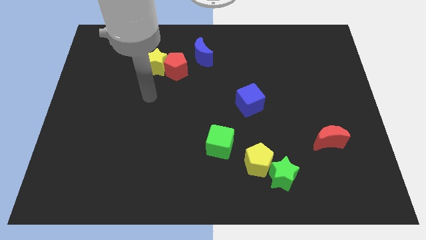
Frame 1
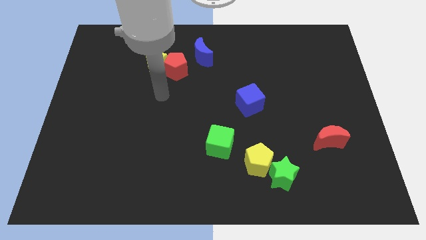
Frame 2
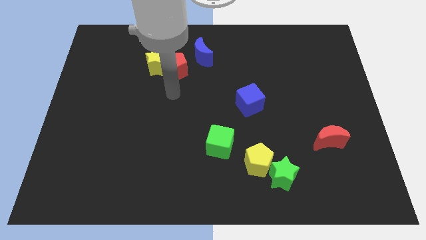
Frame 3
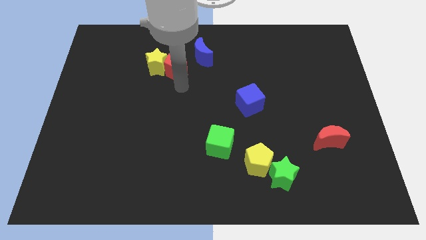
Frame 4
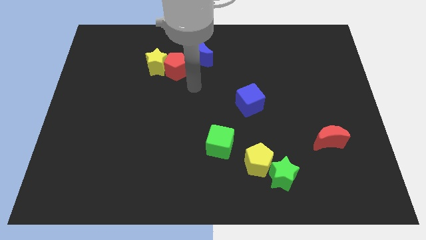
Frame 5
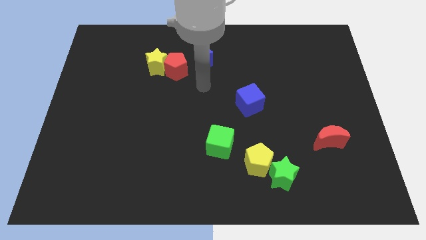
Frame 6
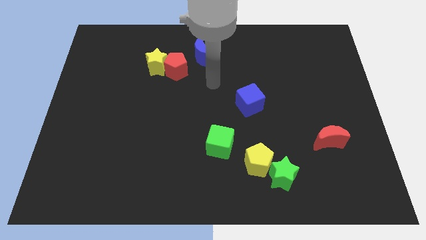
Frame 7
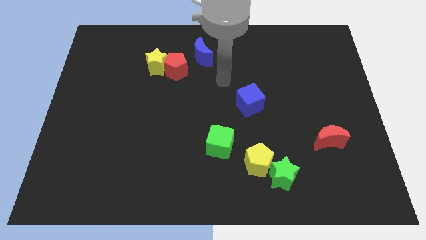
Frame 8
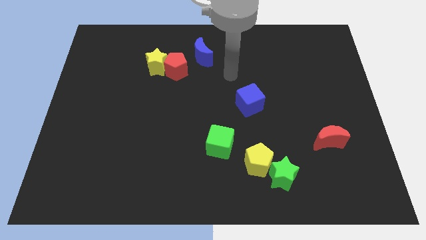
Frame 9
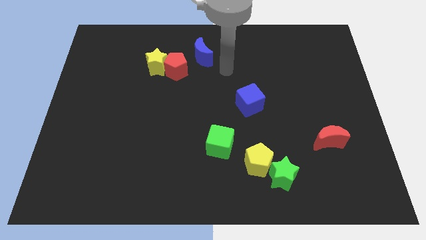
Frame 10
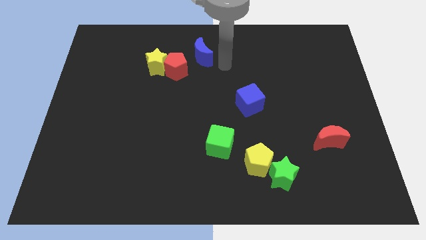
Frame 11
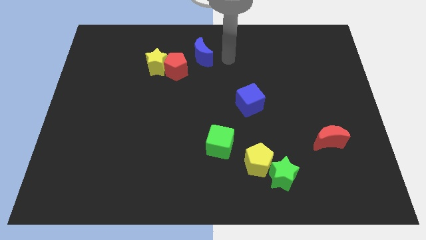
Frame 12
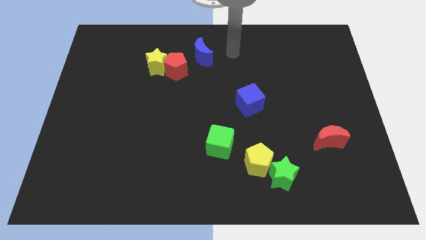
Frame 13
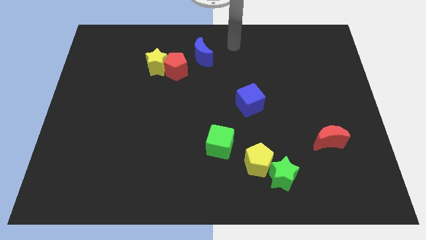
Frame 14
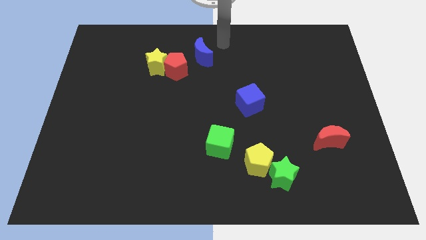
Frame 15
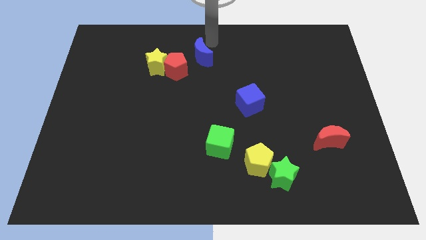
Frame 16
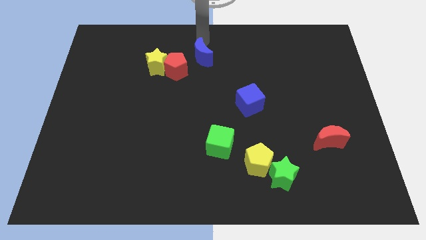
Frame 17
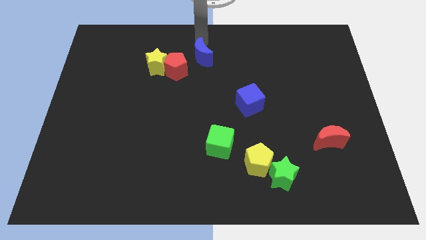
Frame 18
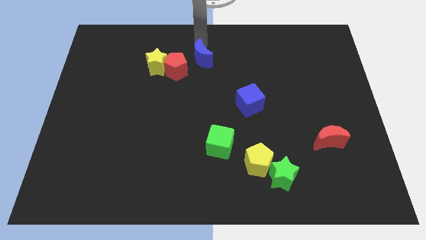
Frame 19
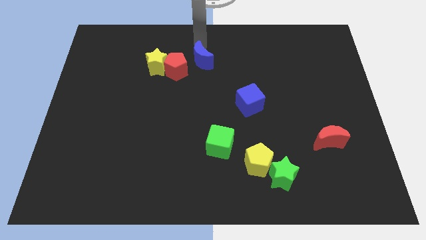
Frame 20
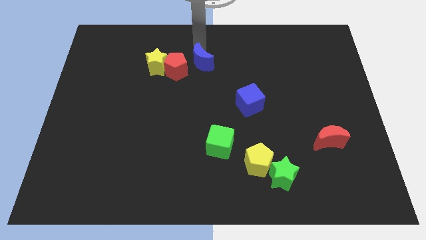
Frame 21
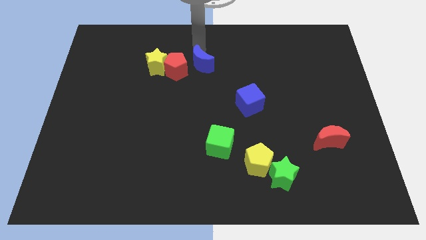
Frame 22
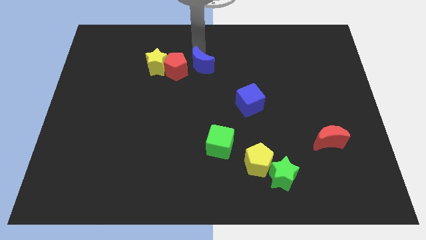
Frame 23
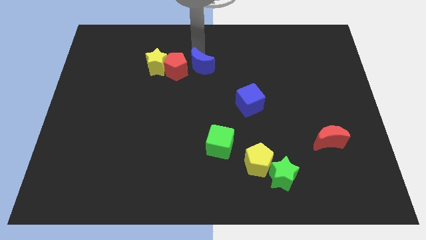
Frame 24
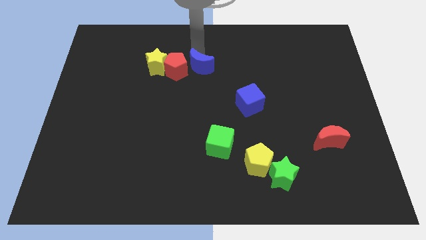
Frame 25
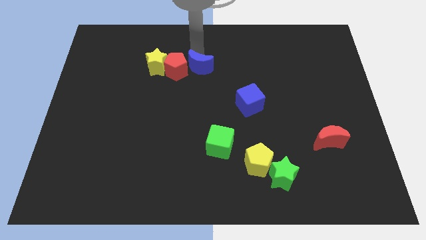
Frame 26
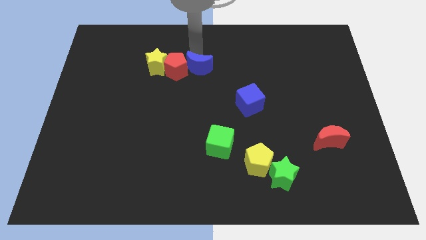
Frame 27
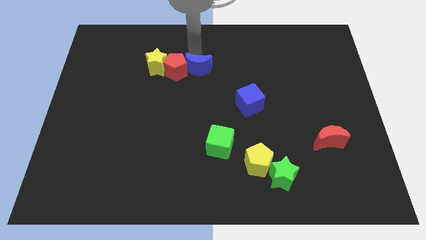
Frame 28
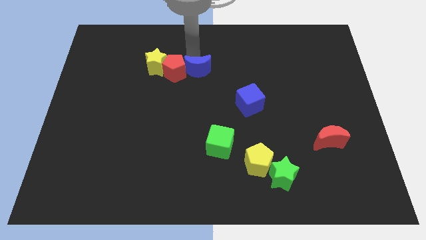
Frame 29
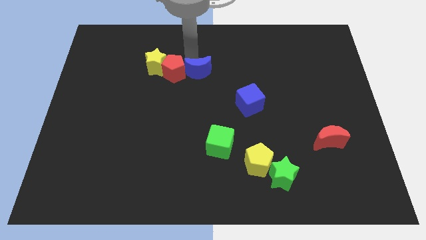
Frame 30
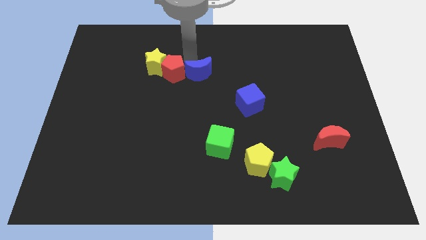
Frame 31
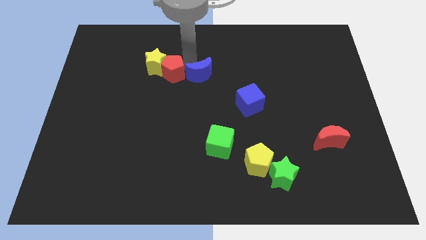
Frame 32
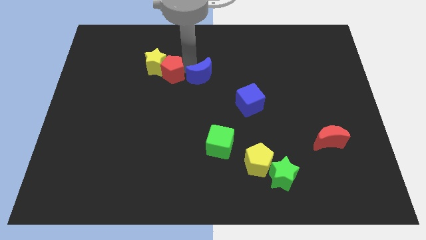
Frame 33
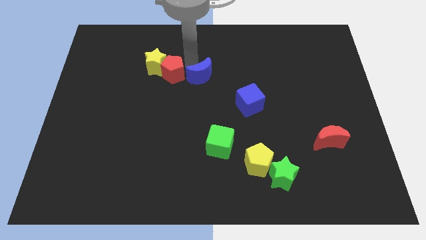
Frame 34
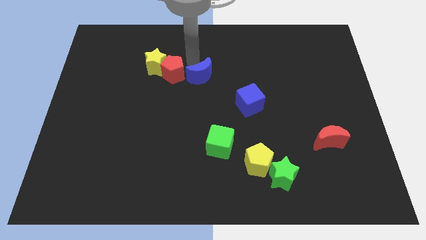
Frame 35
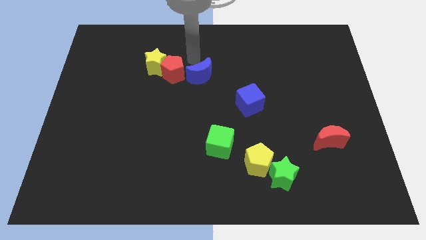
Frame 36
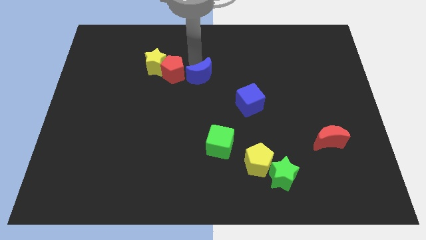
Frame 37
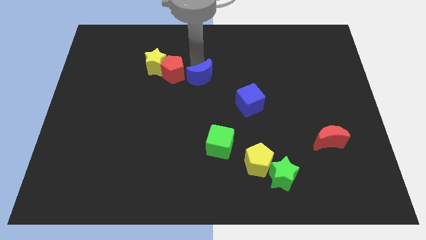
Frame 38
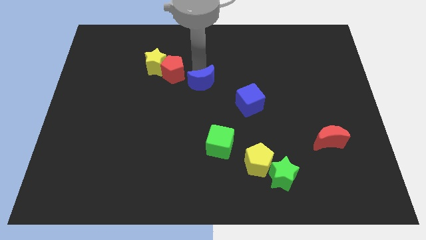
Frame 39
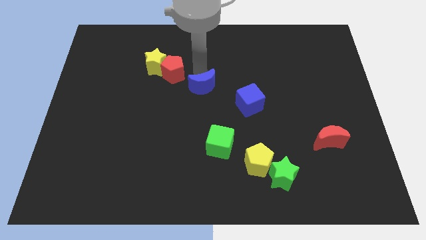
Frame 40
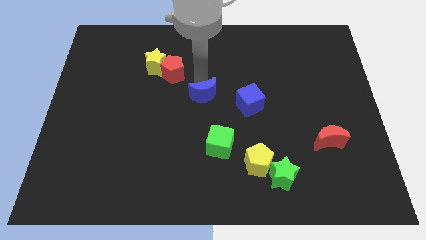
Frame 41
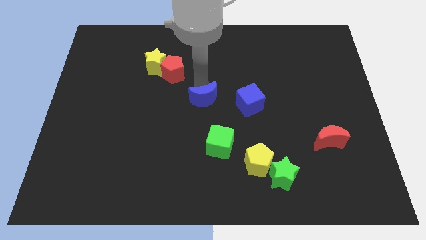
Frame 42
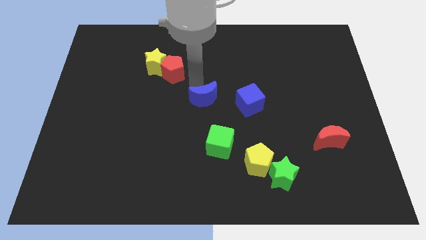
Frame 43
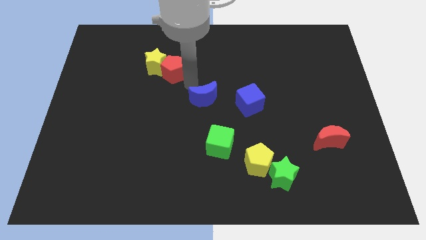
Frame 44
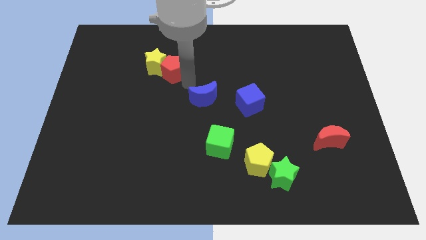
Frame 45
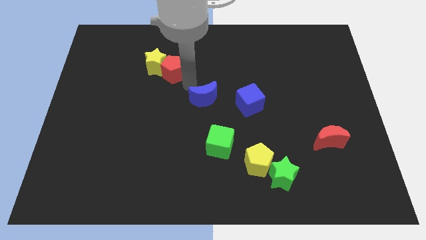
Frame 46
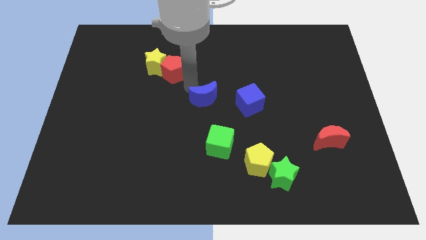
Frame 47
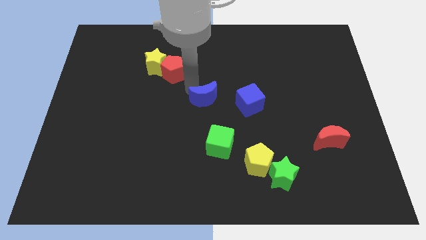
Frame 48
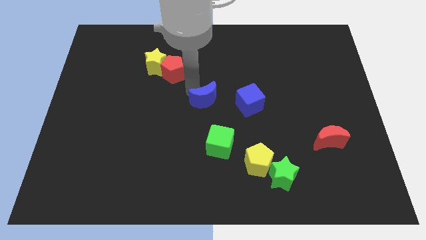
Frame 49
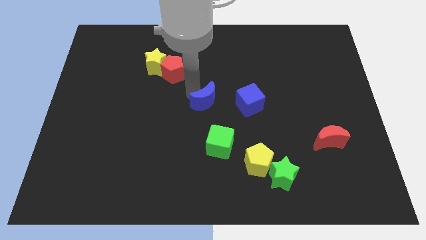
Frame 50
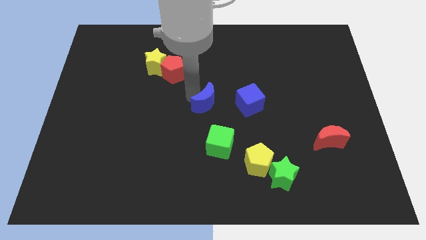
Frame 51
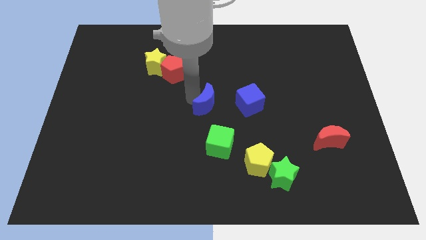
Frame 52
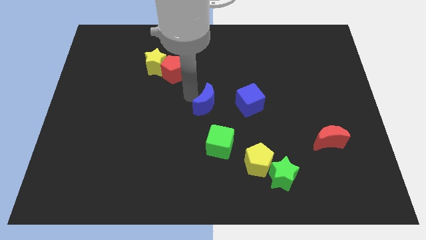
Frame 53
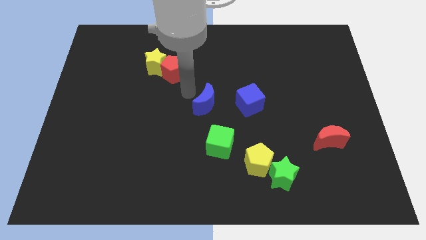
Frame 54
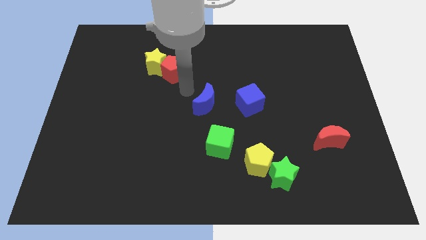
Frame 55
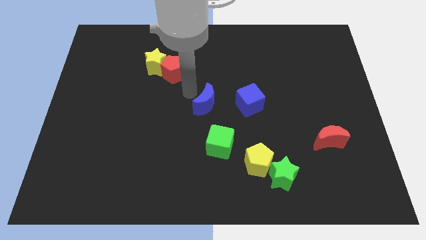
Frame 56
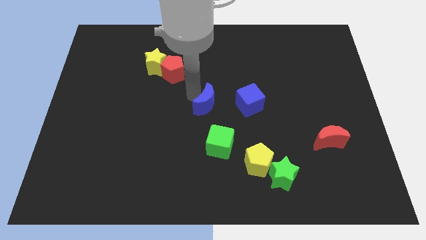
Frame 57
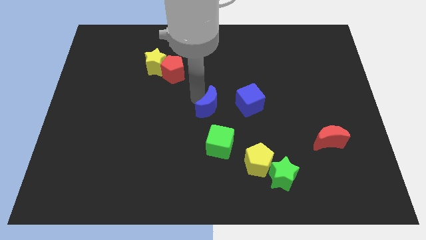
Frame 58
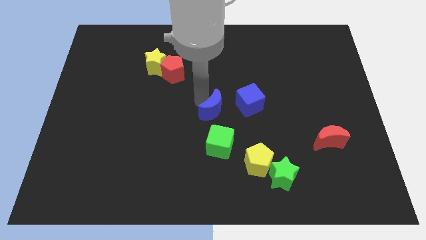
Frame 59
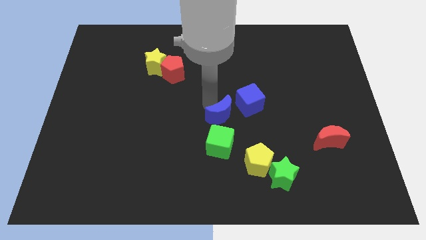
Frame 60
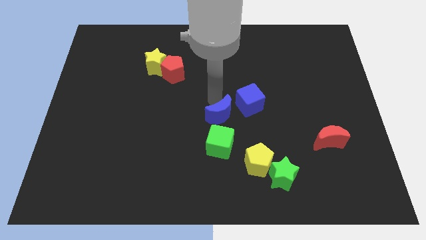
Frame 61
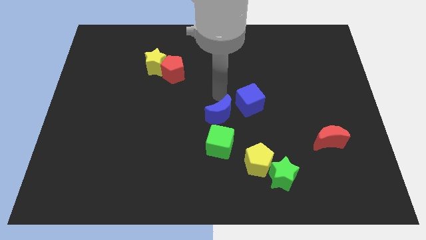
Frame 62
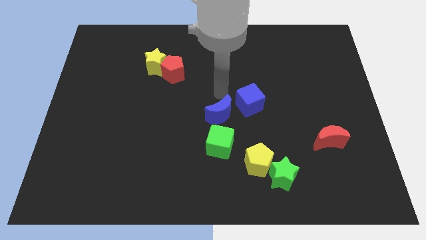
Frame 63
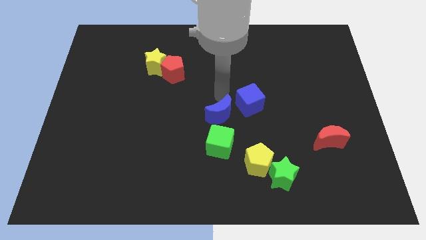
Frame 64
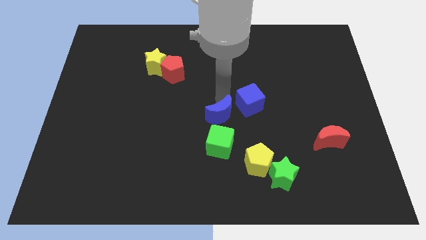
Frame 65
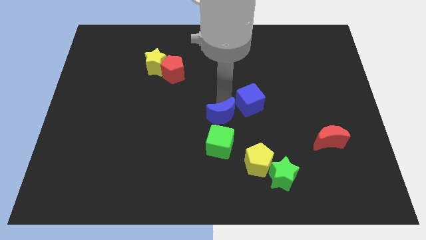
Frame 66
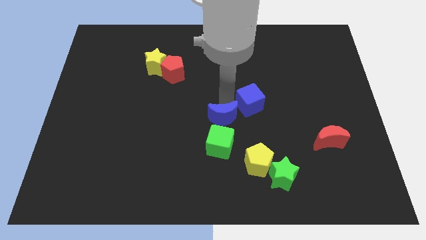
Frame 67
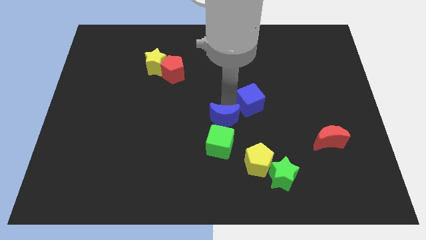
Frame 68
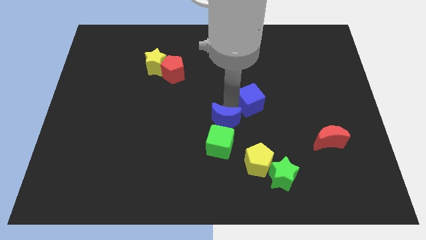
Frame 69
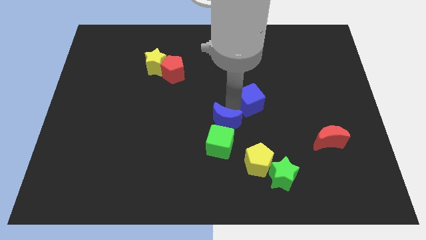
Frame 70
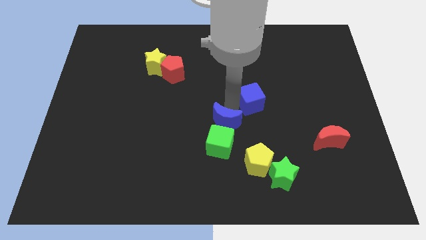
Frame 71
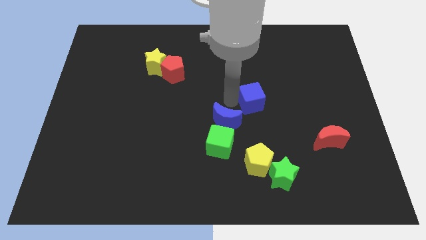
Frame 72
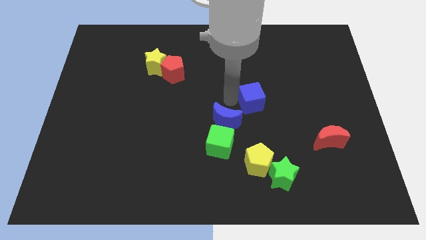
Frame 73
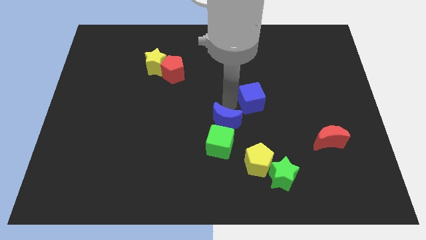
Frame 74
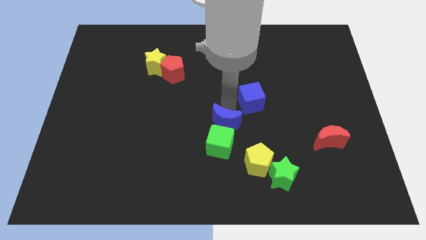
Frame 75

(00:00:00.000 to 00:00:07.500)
put the blue moon next to the green cube
